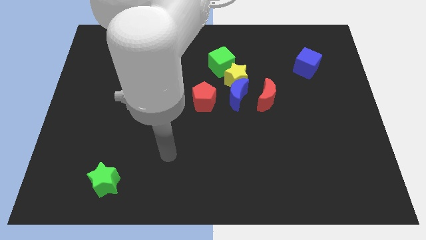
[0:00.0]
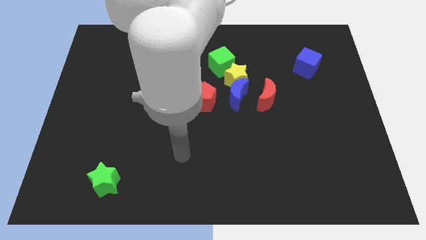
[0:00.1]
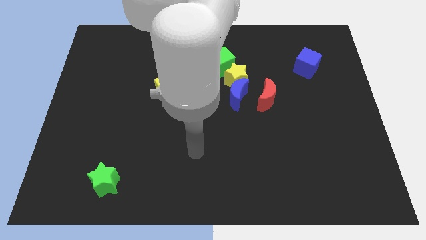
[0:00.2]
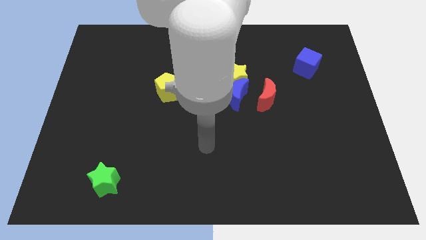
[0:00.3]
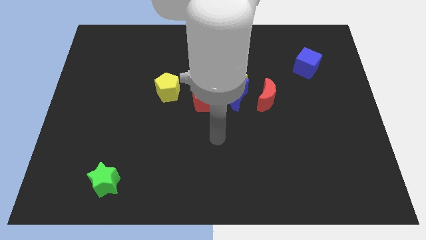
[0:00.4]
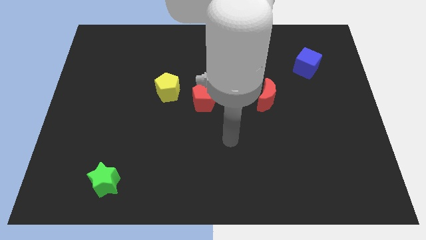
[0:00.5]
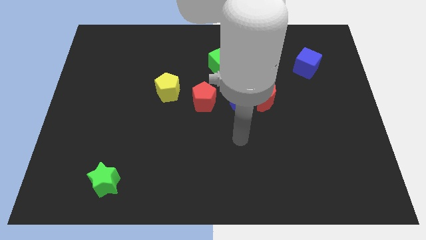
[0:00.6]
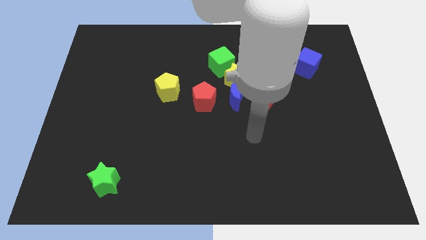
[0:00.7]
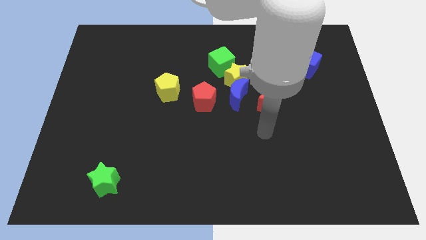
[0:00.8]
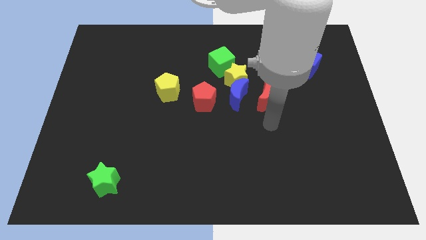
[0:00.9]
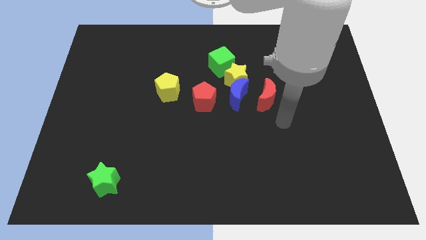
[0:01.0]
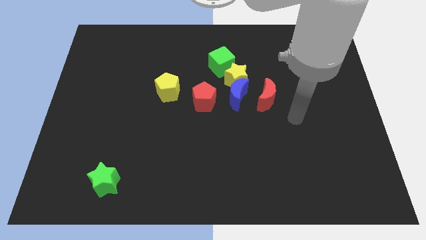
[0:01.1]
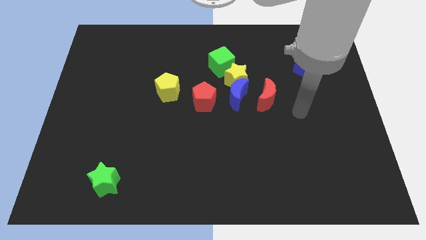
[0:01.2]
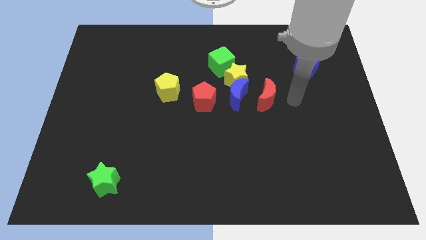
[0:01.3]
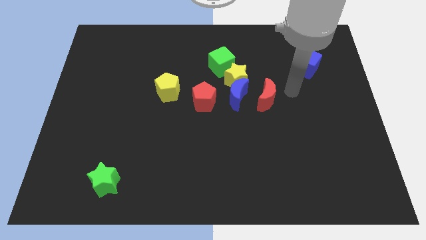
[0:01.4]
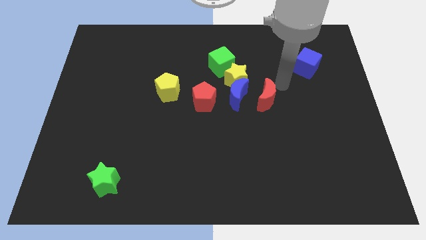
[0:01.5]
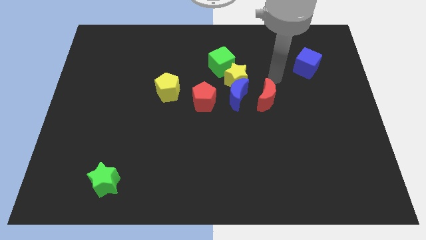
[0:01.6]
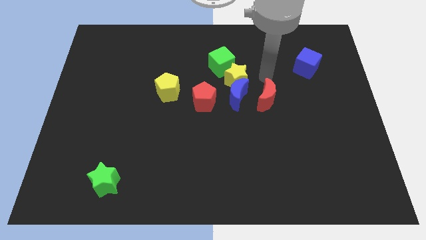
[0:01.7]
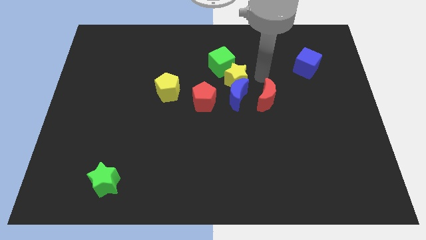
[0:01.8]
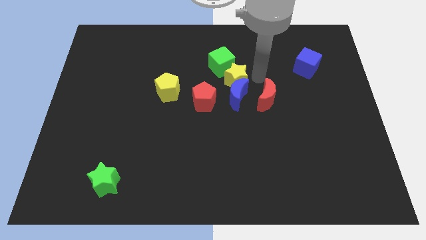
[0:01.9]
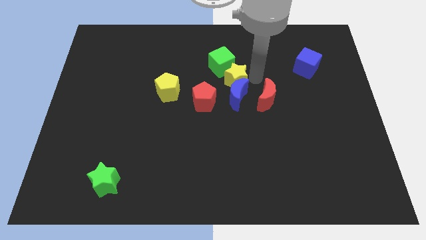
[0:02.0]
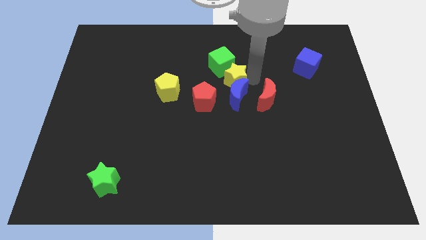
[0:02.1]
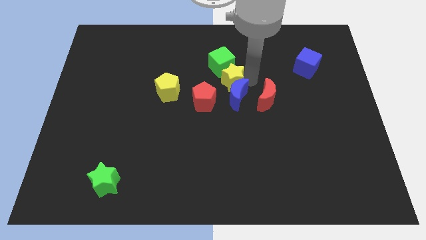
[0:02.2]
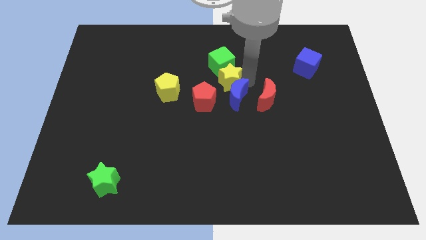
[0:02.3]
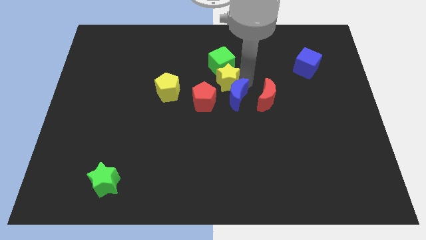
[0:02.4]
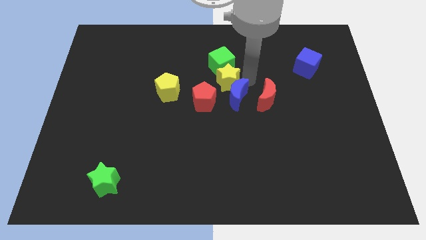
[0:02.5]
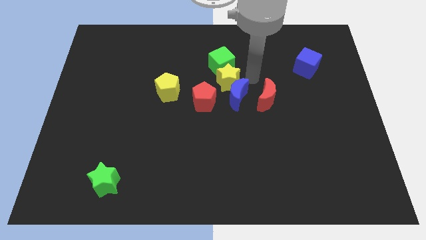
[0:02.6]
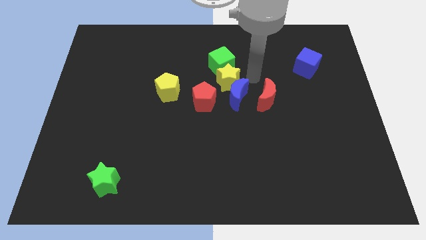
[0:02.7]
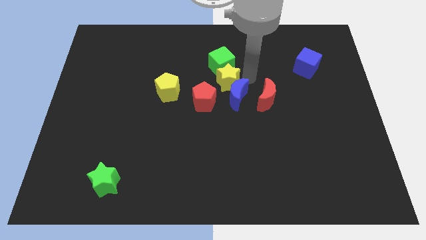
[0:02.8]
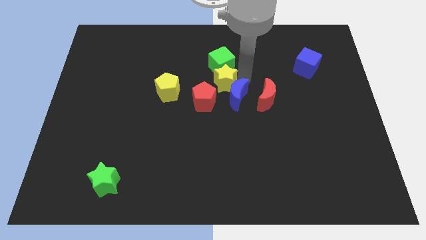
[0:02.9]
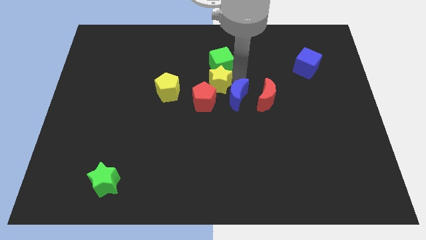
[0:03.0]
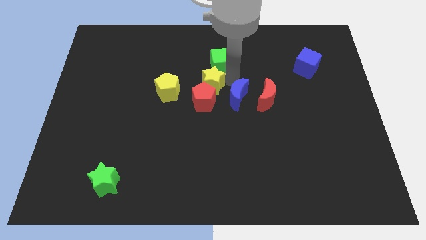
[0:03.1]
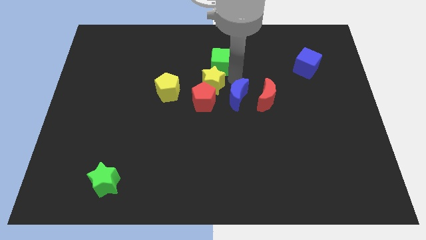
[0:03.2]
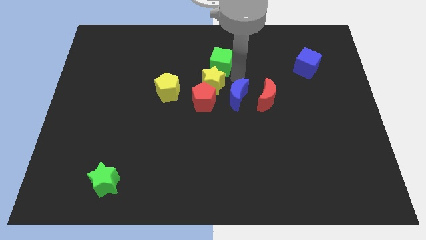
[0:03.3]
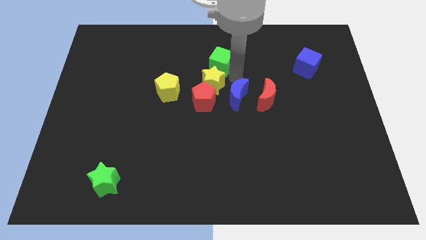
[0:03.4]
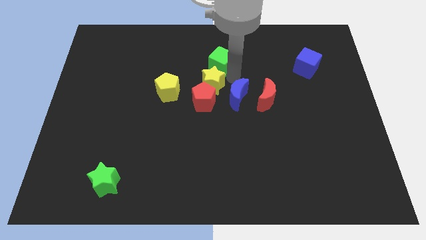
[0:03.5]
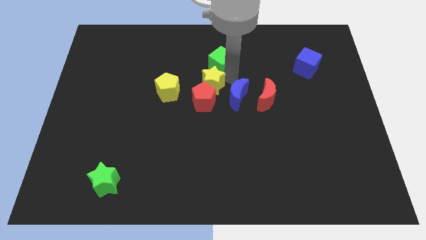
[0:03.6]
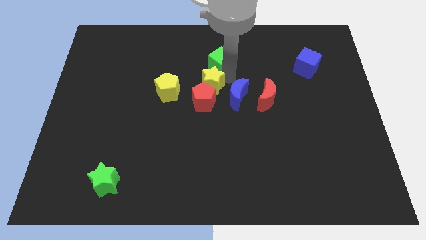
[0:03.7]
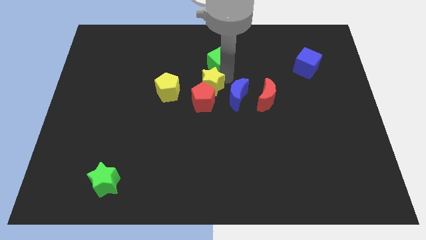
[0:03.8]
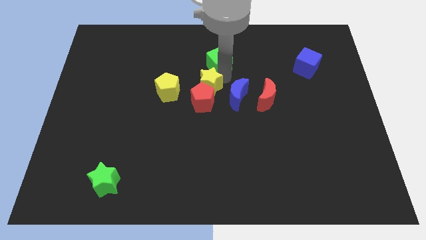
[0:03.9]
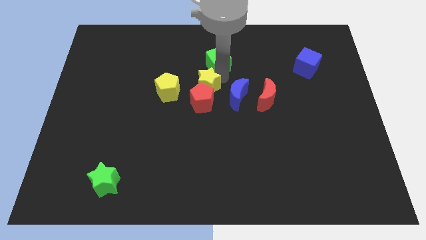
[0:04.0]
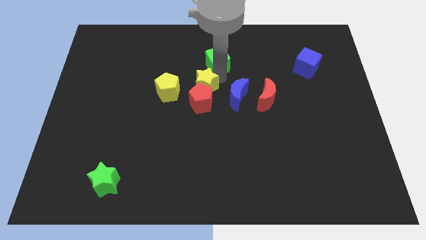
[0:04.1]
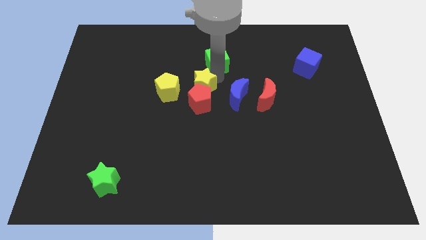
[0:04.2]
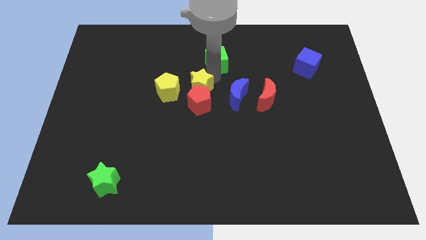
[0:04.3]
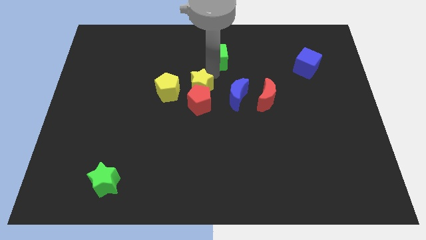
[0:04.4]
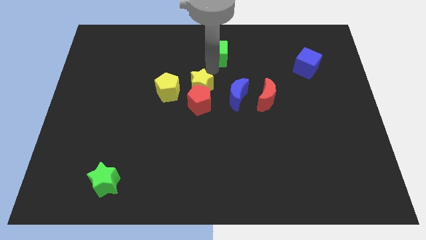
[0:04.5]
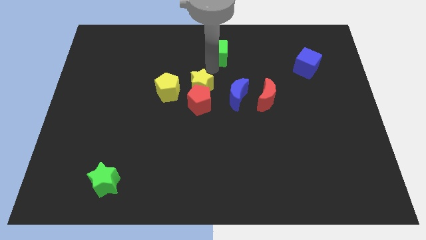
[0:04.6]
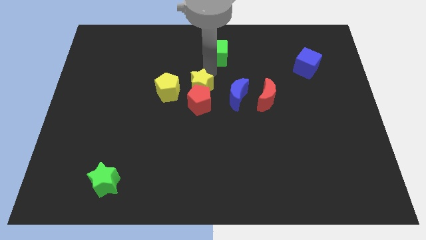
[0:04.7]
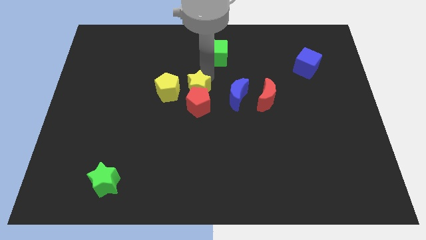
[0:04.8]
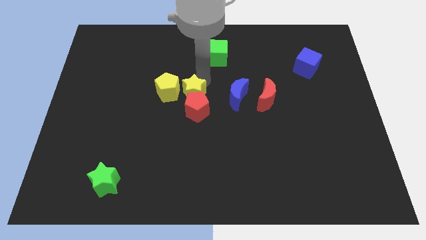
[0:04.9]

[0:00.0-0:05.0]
slide the yellow star to the bottom right side of the yellow pentagon

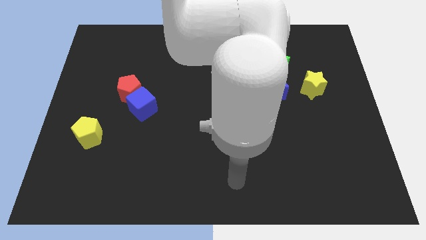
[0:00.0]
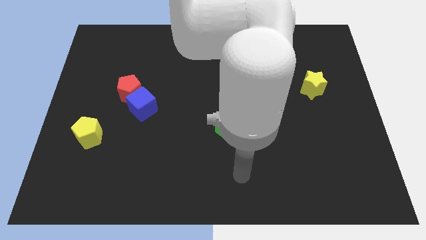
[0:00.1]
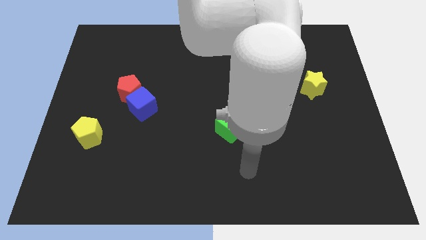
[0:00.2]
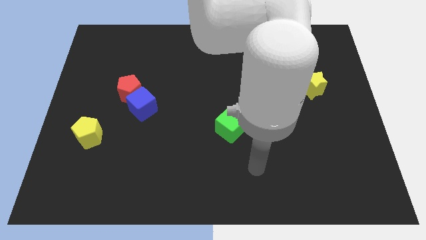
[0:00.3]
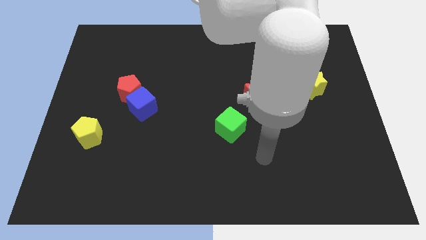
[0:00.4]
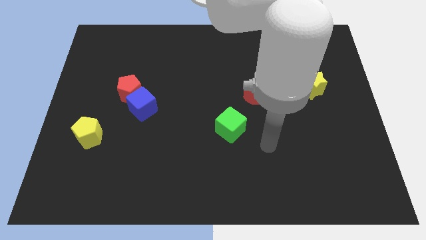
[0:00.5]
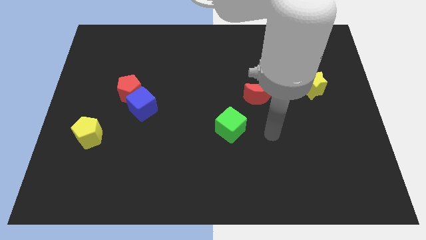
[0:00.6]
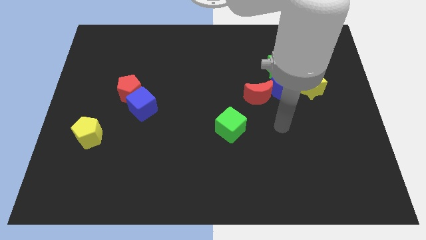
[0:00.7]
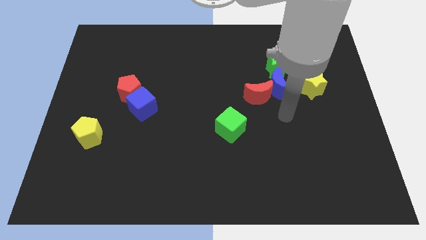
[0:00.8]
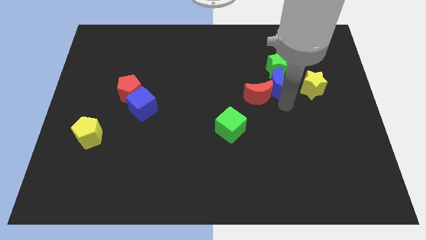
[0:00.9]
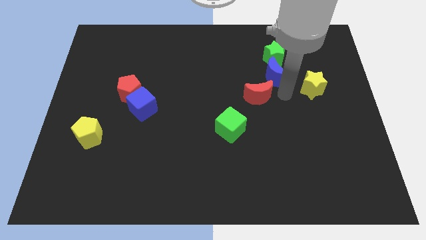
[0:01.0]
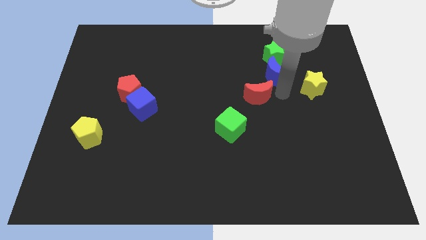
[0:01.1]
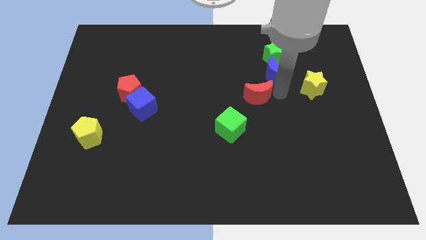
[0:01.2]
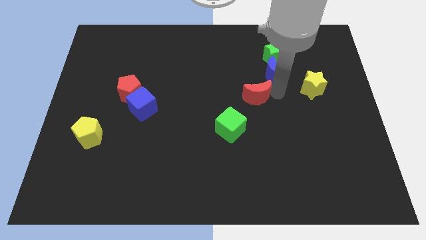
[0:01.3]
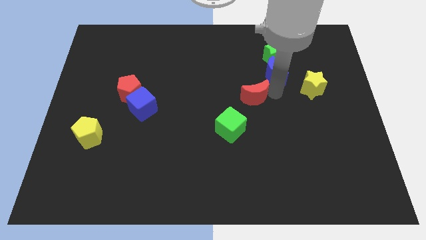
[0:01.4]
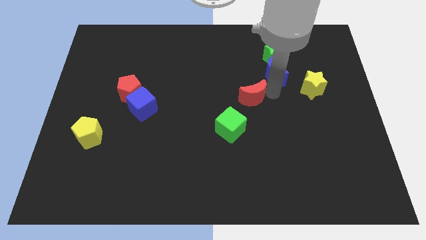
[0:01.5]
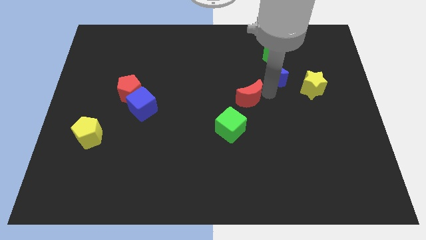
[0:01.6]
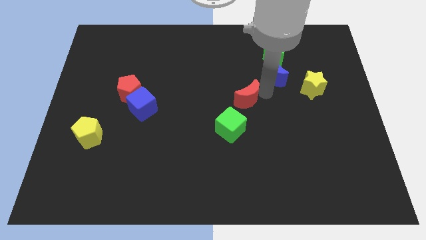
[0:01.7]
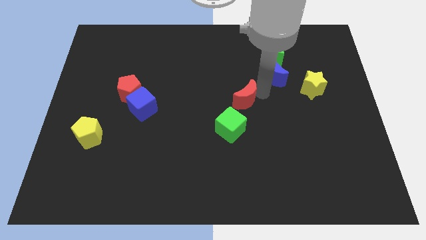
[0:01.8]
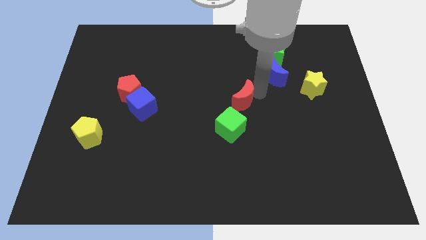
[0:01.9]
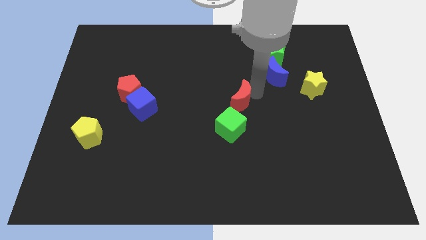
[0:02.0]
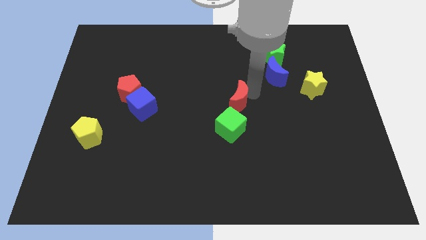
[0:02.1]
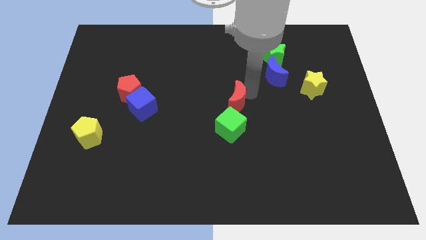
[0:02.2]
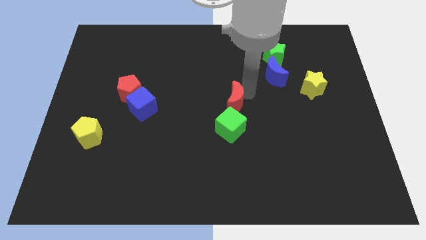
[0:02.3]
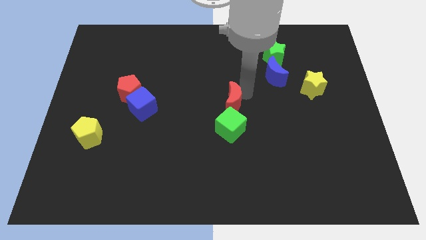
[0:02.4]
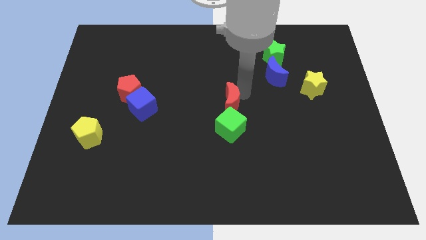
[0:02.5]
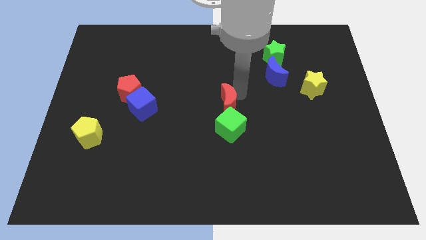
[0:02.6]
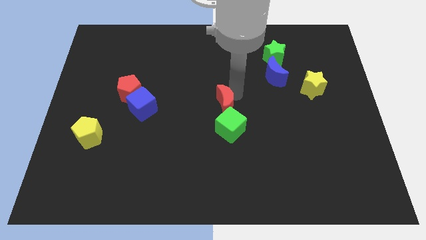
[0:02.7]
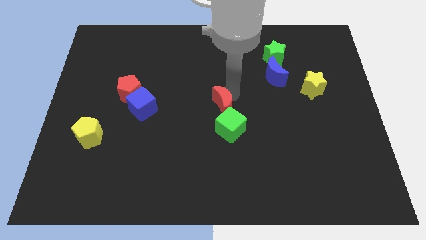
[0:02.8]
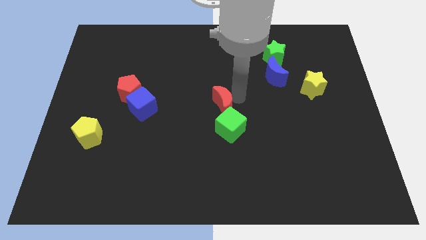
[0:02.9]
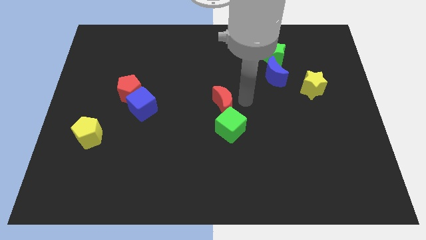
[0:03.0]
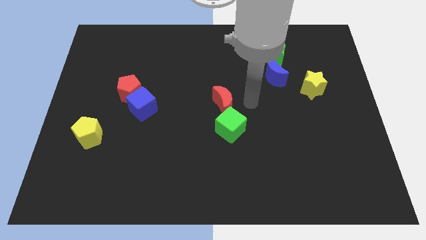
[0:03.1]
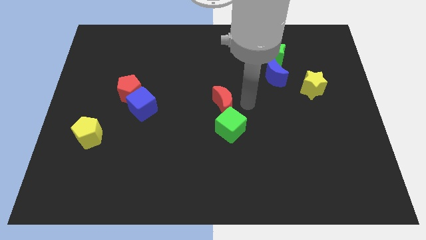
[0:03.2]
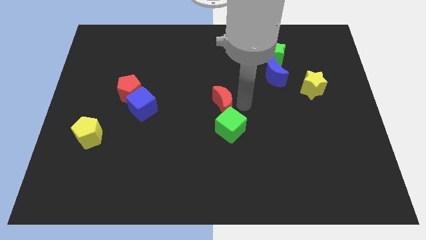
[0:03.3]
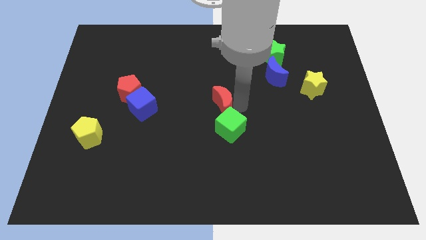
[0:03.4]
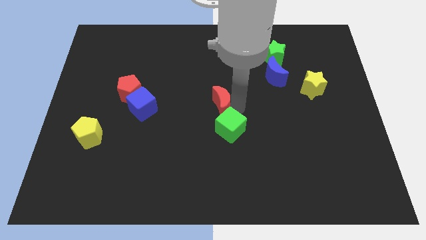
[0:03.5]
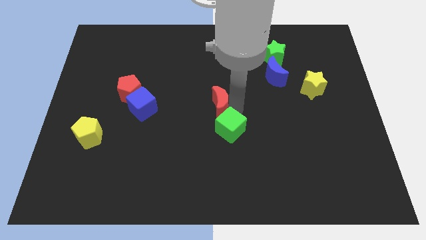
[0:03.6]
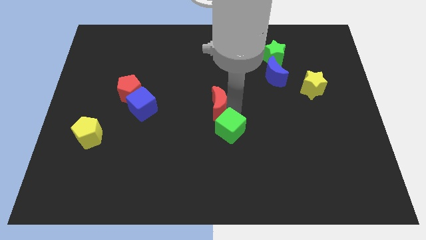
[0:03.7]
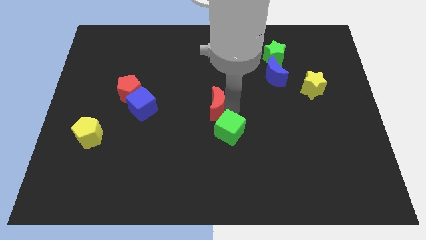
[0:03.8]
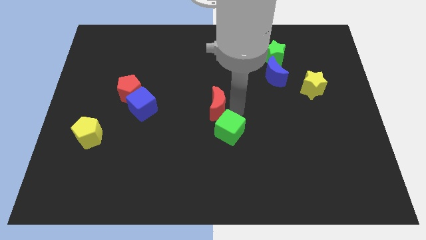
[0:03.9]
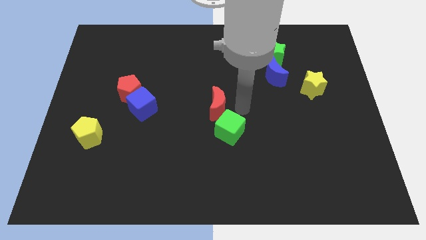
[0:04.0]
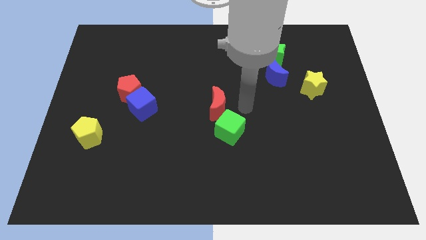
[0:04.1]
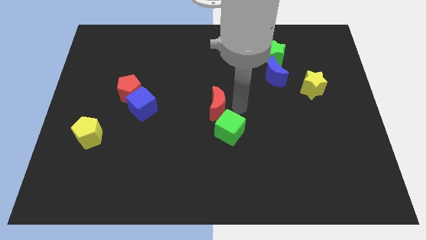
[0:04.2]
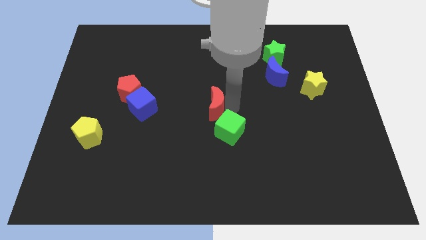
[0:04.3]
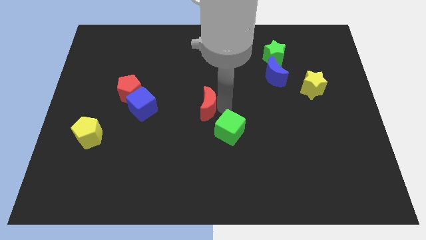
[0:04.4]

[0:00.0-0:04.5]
put the red moon to the right of the blue cube
